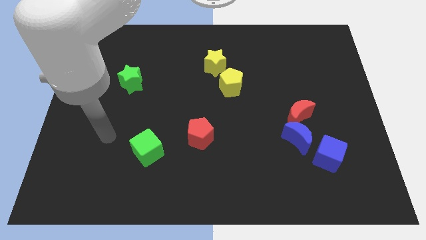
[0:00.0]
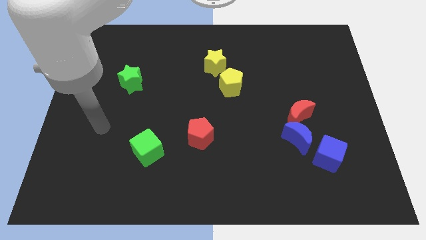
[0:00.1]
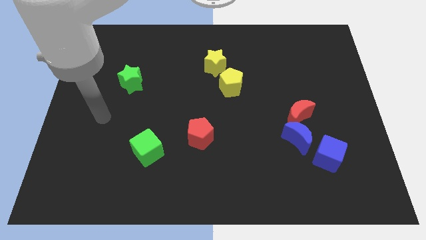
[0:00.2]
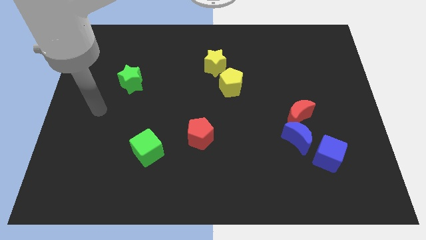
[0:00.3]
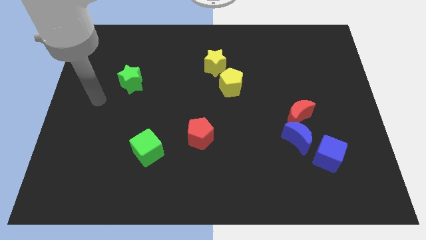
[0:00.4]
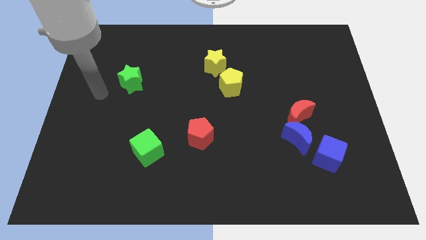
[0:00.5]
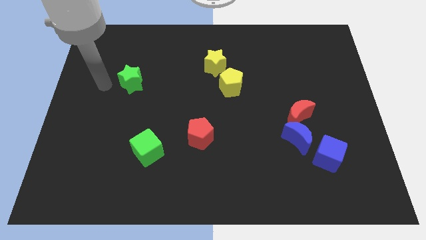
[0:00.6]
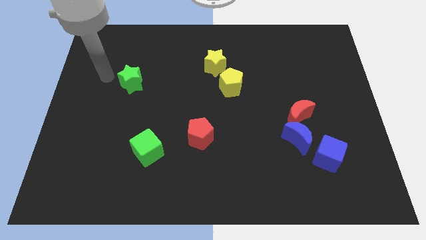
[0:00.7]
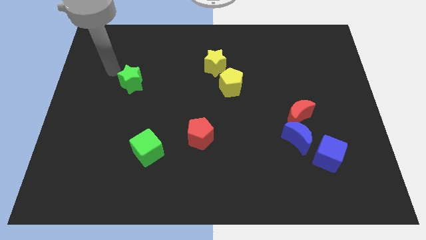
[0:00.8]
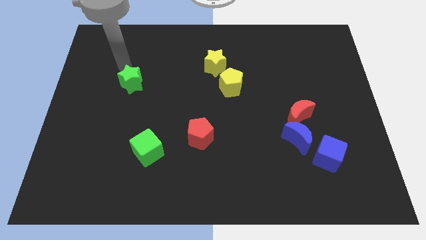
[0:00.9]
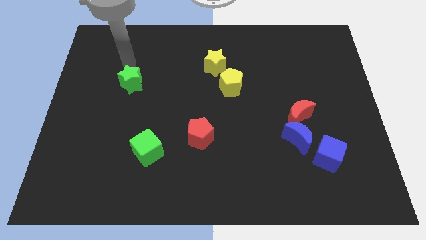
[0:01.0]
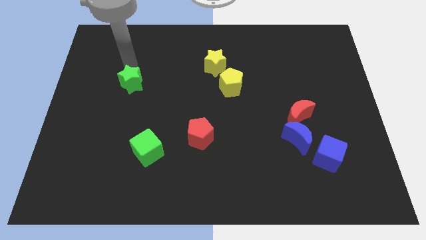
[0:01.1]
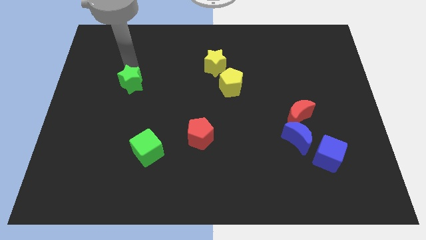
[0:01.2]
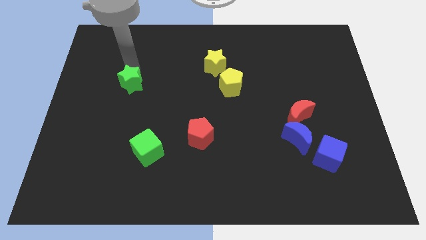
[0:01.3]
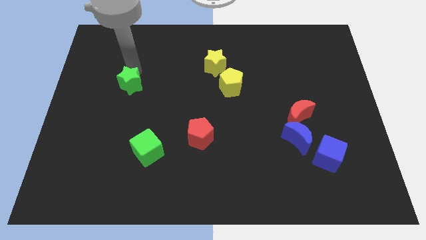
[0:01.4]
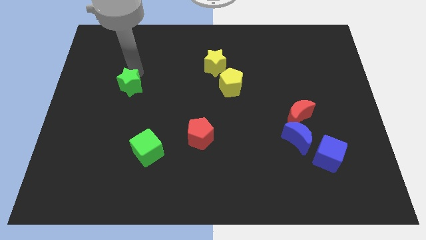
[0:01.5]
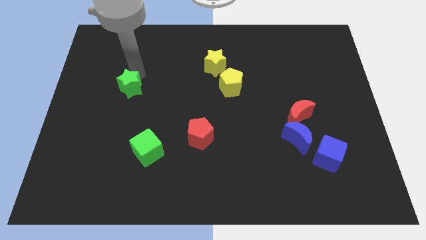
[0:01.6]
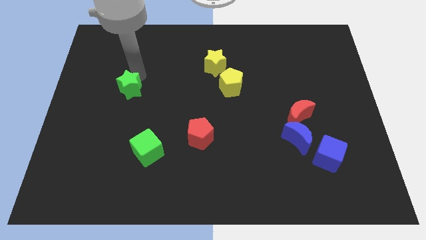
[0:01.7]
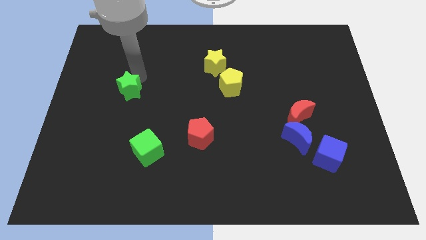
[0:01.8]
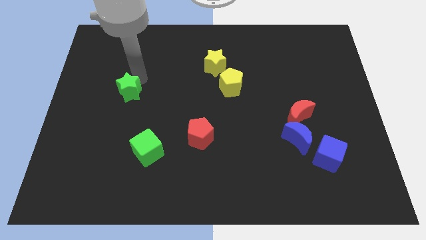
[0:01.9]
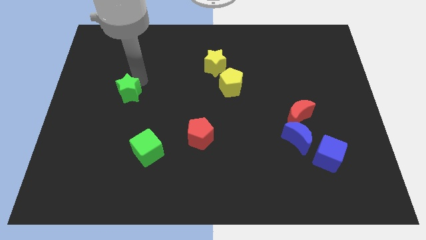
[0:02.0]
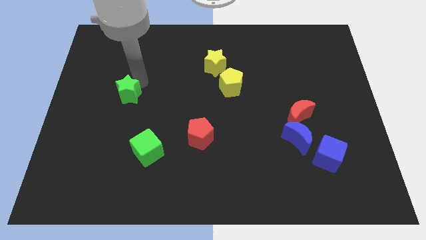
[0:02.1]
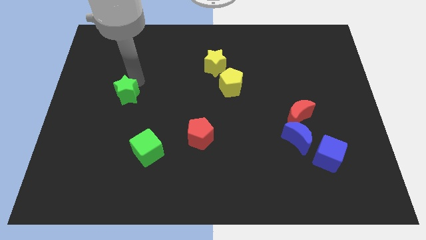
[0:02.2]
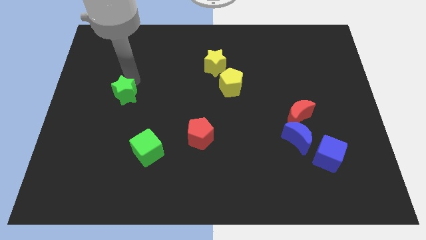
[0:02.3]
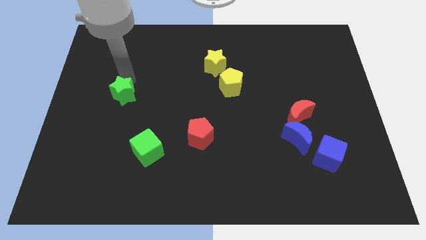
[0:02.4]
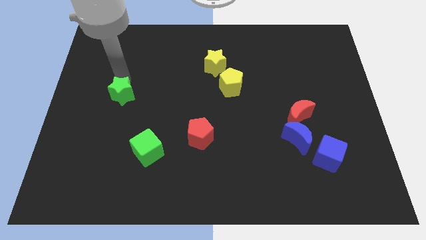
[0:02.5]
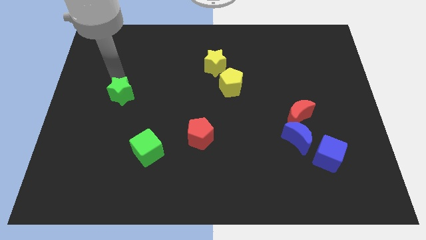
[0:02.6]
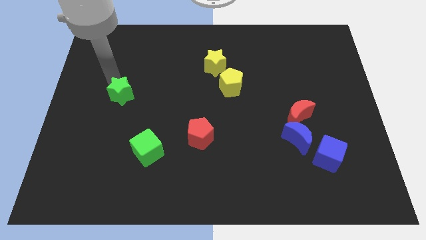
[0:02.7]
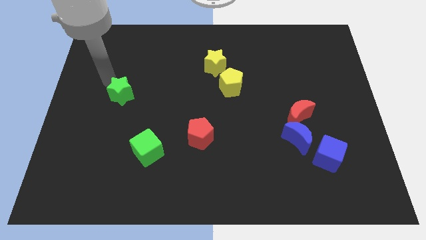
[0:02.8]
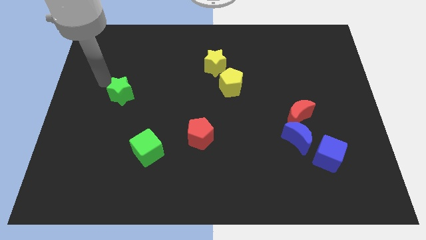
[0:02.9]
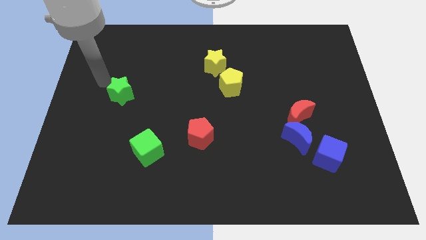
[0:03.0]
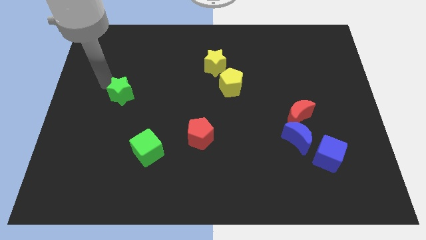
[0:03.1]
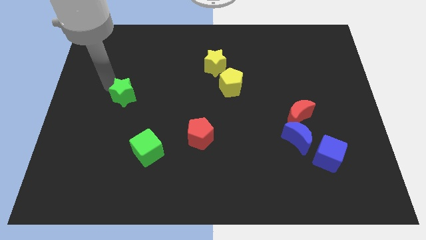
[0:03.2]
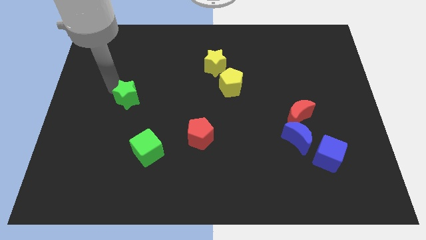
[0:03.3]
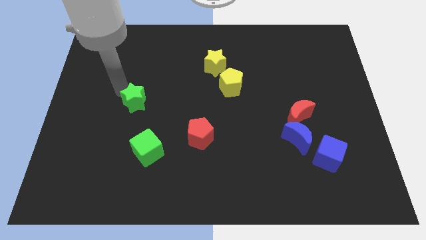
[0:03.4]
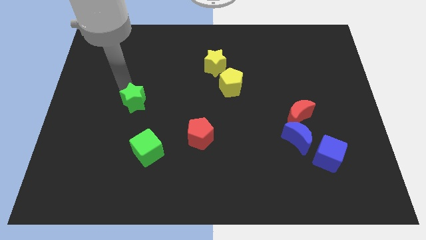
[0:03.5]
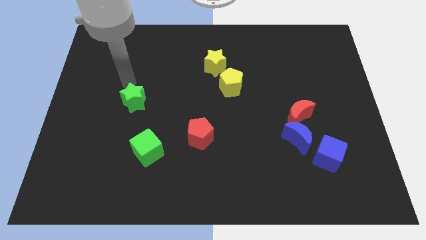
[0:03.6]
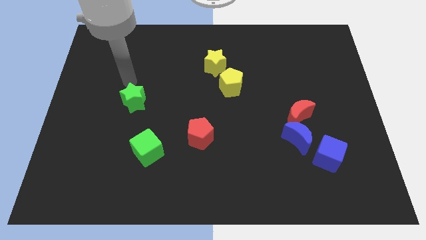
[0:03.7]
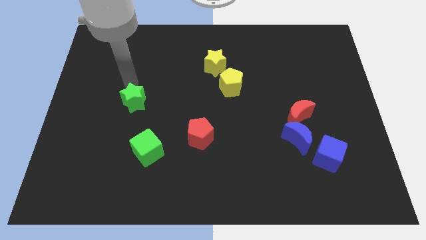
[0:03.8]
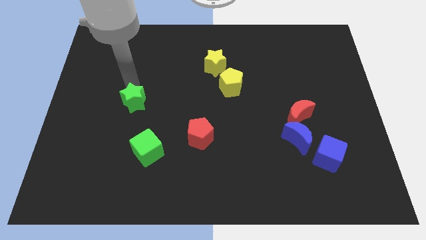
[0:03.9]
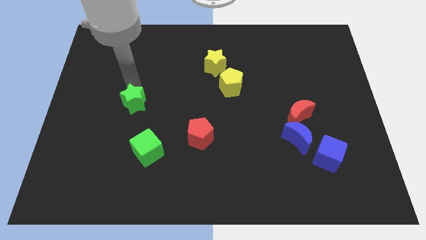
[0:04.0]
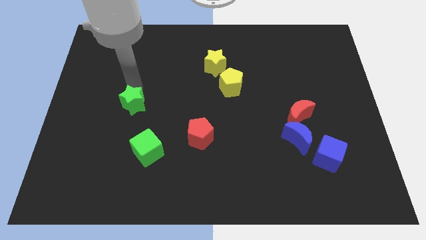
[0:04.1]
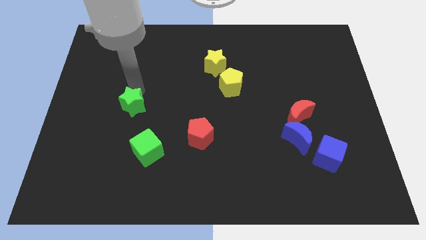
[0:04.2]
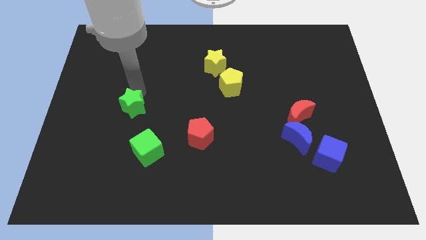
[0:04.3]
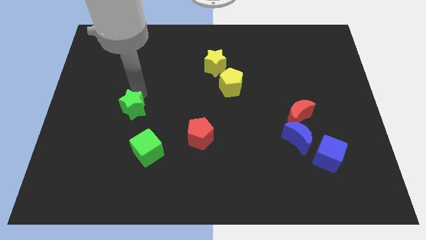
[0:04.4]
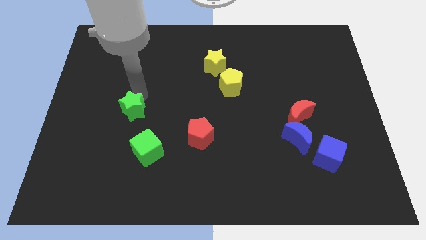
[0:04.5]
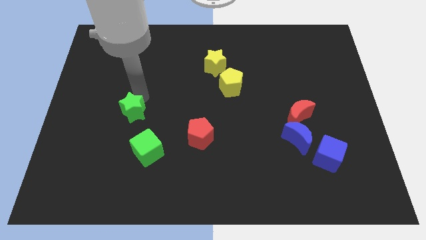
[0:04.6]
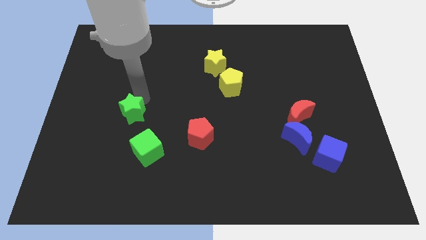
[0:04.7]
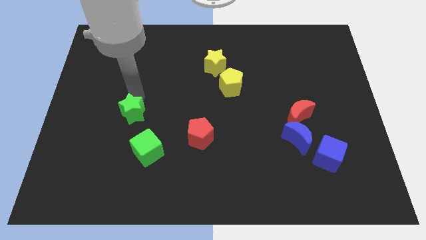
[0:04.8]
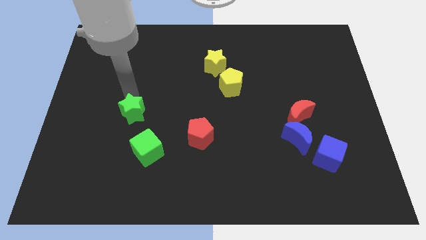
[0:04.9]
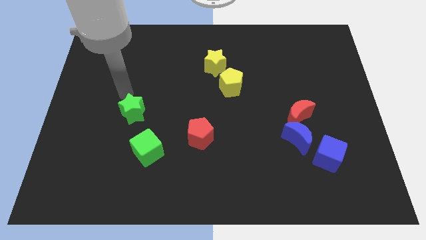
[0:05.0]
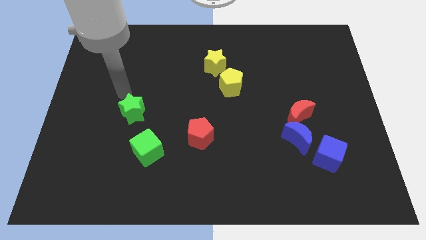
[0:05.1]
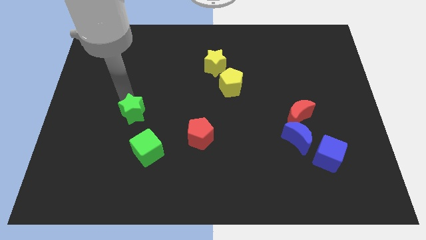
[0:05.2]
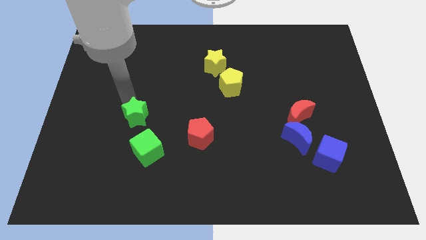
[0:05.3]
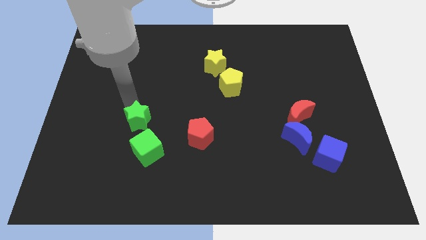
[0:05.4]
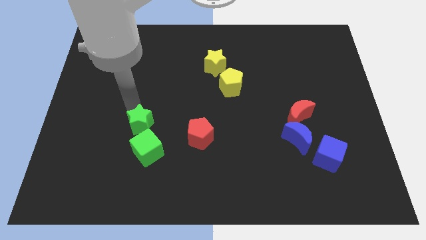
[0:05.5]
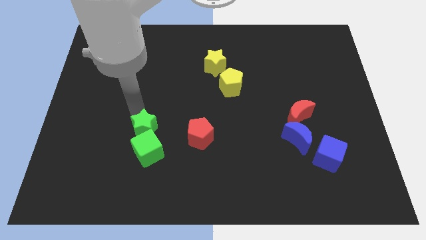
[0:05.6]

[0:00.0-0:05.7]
put the green star to the green cube

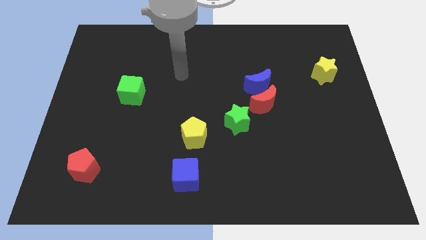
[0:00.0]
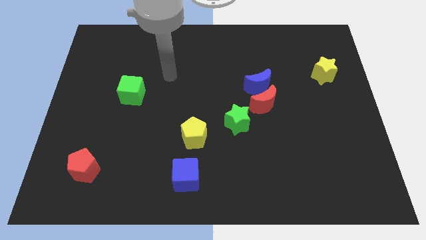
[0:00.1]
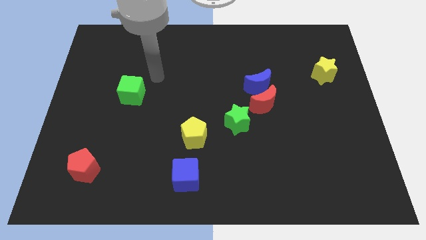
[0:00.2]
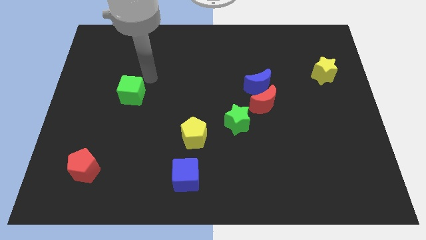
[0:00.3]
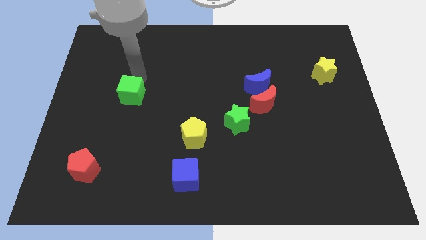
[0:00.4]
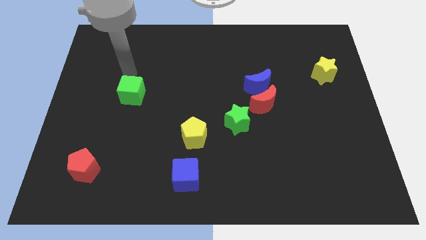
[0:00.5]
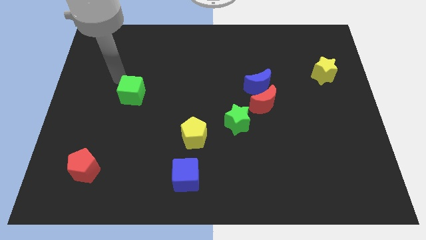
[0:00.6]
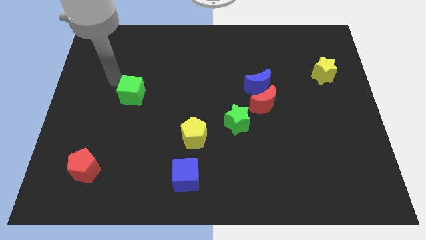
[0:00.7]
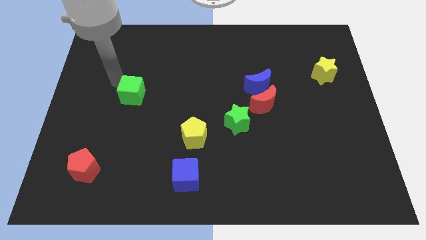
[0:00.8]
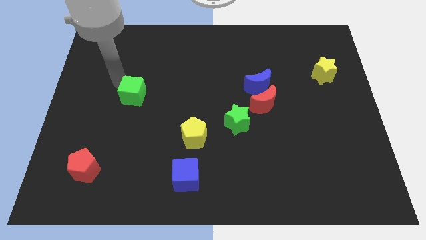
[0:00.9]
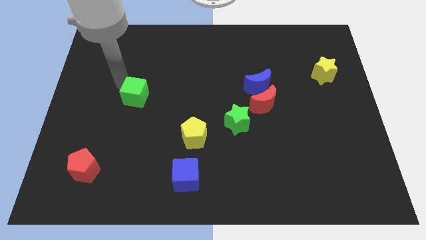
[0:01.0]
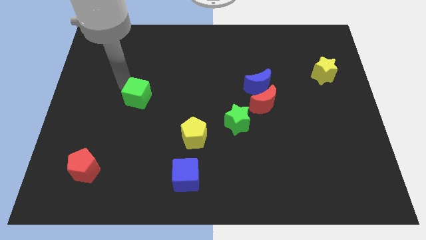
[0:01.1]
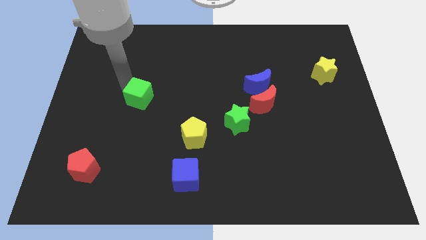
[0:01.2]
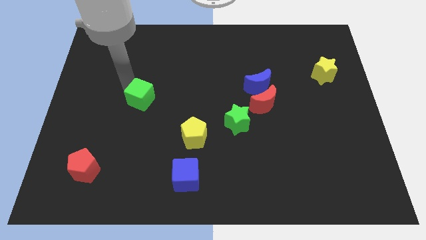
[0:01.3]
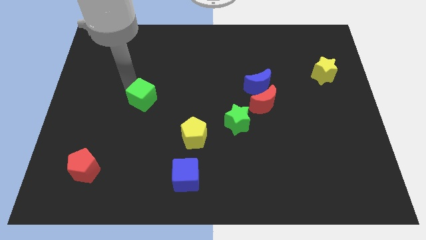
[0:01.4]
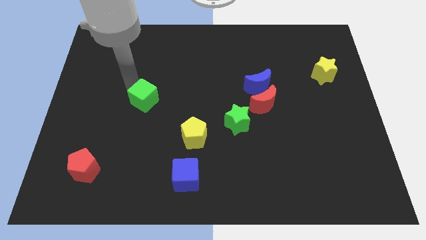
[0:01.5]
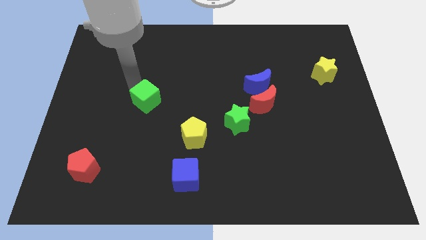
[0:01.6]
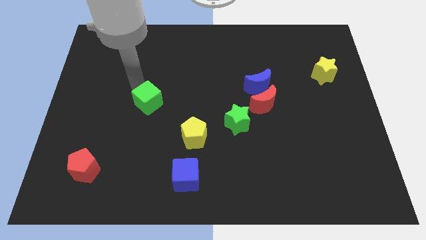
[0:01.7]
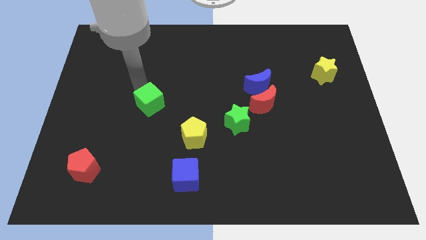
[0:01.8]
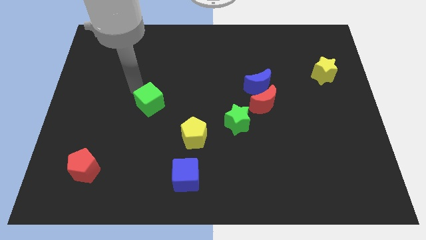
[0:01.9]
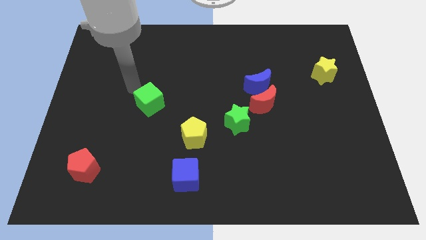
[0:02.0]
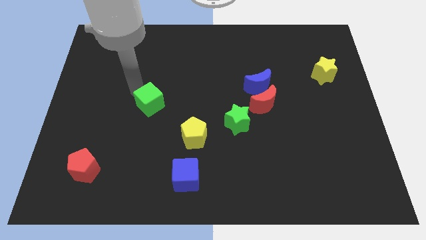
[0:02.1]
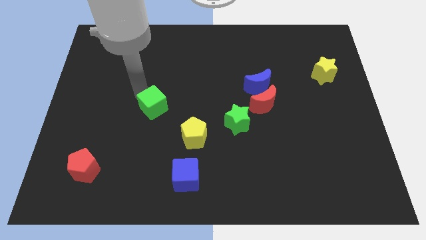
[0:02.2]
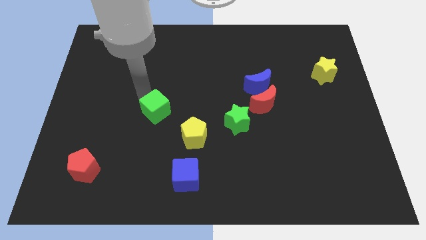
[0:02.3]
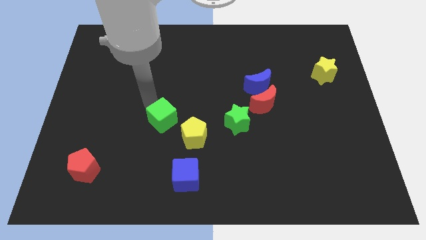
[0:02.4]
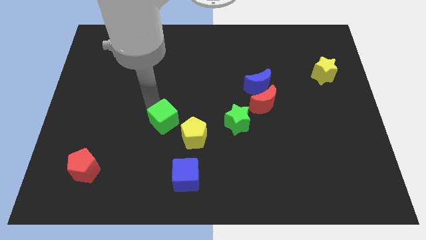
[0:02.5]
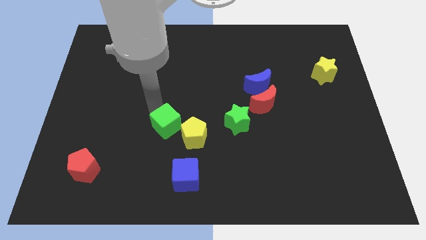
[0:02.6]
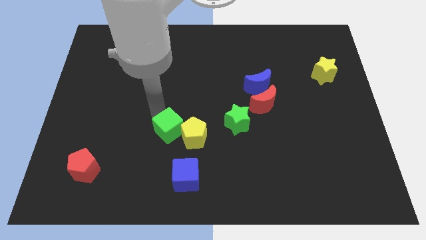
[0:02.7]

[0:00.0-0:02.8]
move the green cube close to the yellow pentagon
